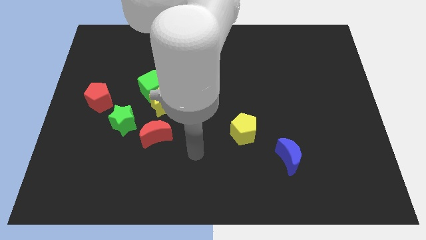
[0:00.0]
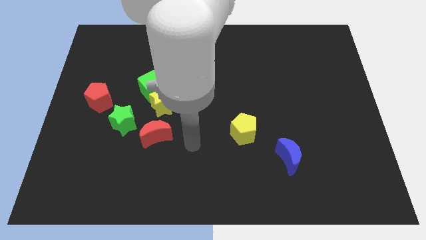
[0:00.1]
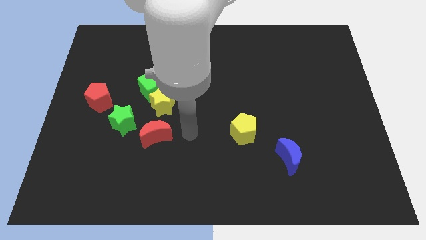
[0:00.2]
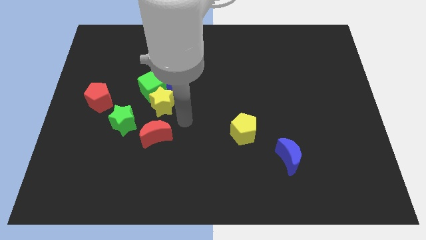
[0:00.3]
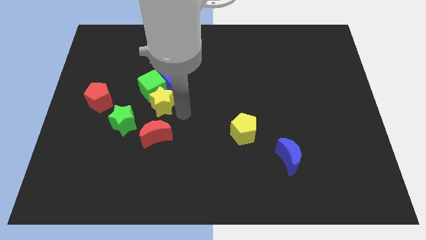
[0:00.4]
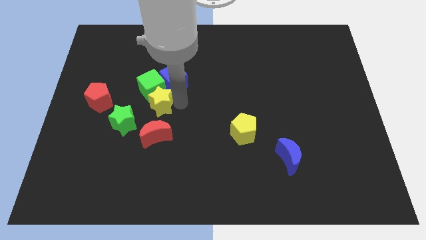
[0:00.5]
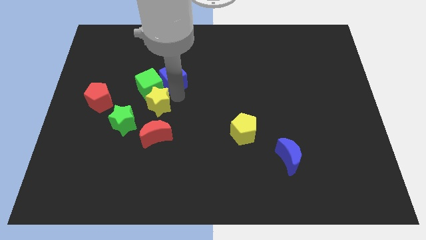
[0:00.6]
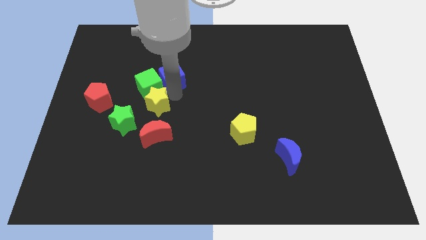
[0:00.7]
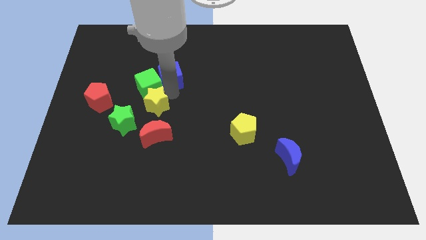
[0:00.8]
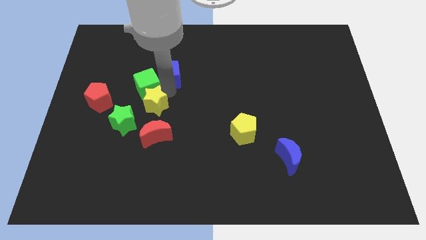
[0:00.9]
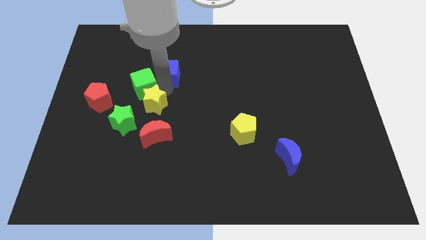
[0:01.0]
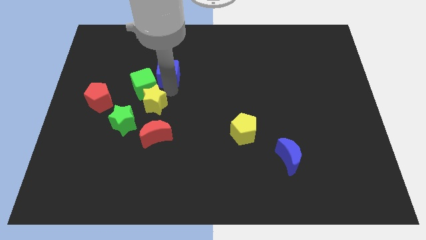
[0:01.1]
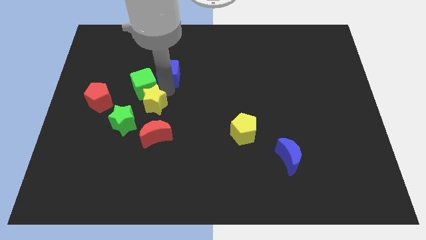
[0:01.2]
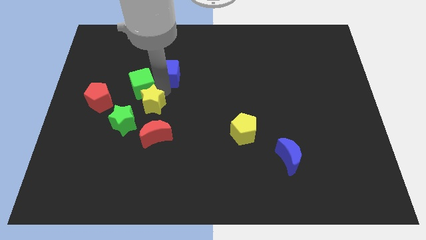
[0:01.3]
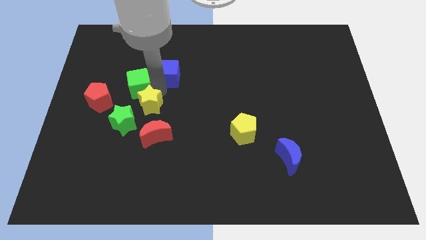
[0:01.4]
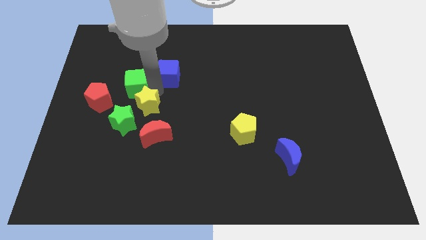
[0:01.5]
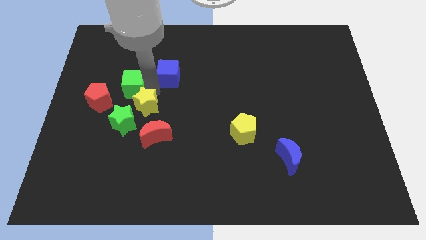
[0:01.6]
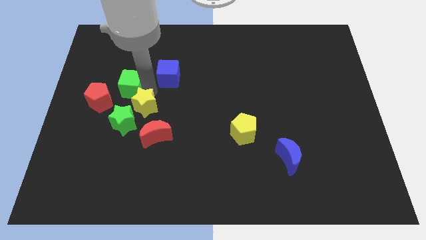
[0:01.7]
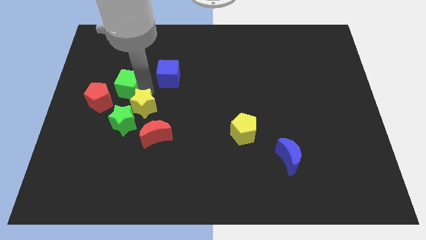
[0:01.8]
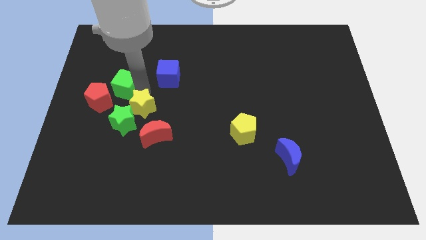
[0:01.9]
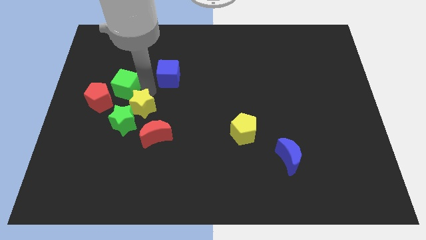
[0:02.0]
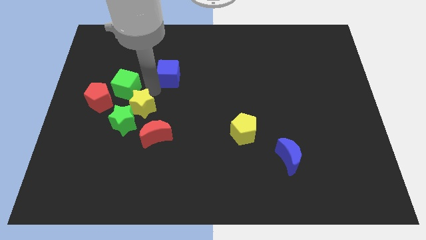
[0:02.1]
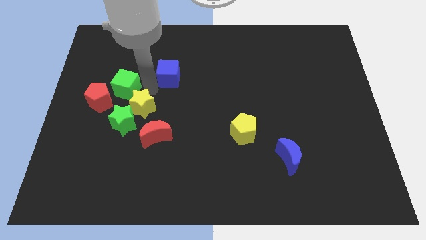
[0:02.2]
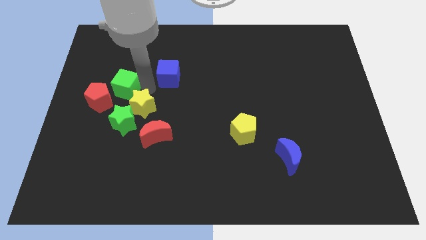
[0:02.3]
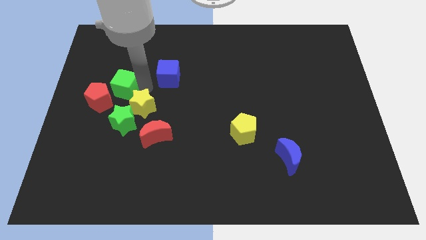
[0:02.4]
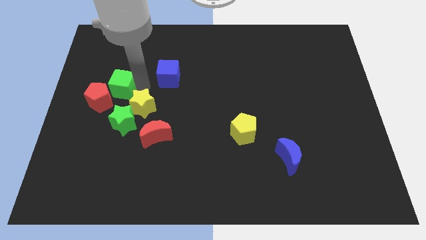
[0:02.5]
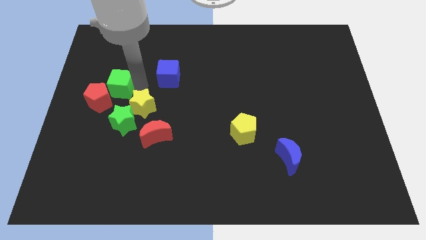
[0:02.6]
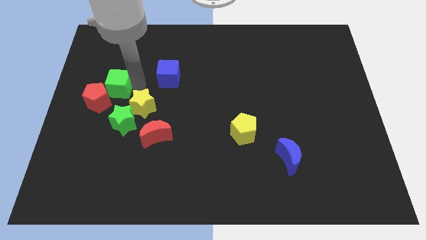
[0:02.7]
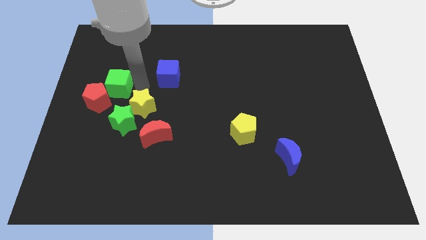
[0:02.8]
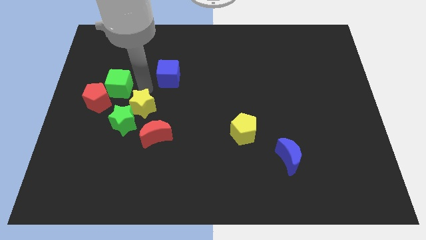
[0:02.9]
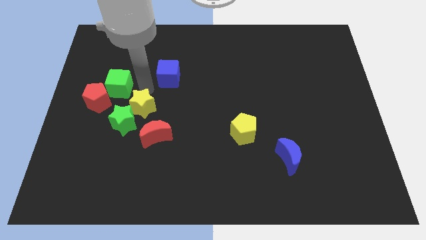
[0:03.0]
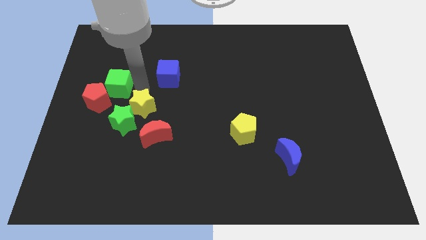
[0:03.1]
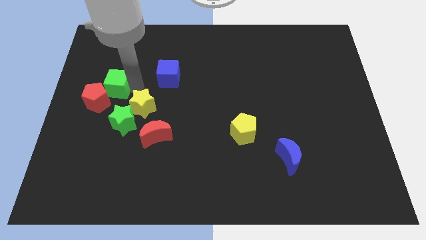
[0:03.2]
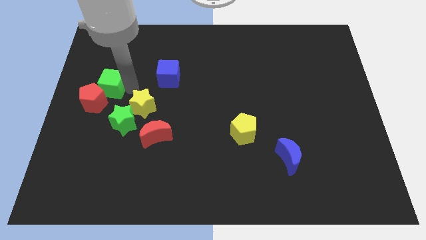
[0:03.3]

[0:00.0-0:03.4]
separate the green cube from the blue cube and yellow star

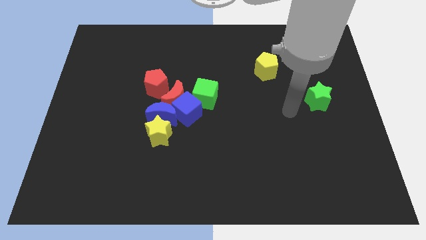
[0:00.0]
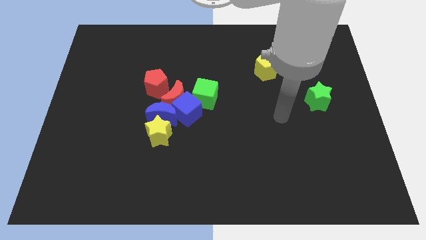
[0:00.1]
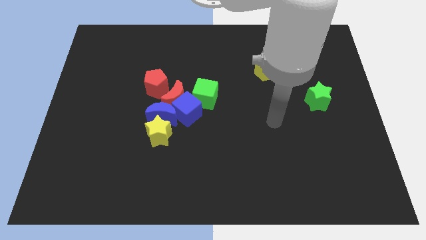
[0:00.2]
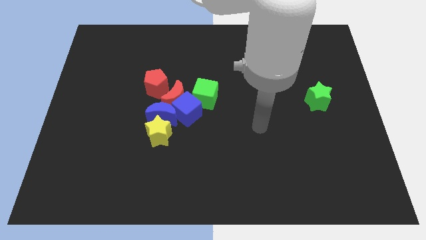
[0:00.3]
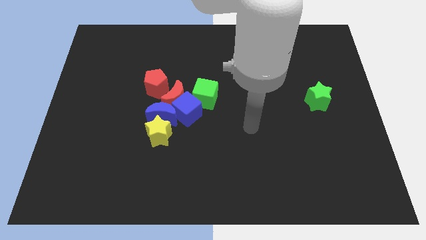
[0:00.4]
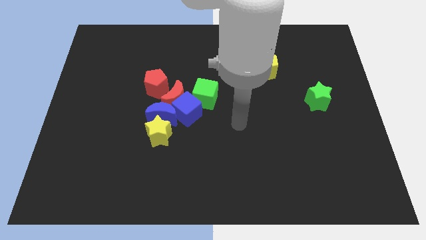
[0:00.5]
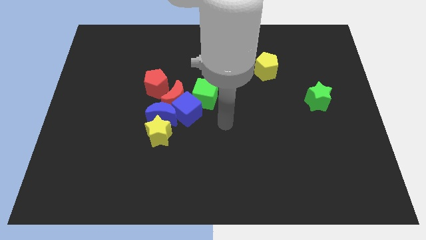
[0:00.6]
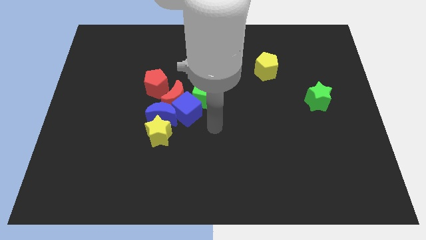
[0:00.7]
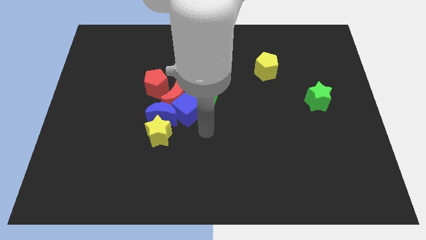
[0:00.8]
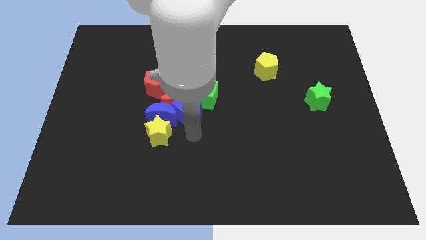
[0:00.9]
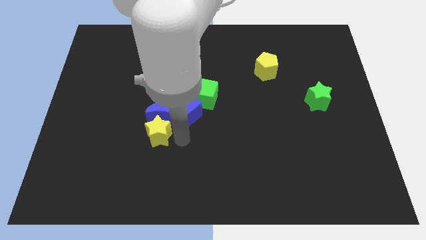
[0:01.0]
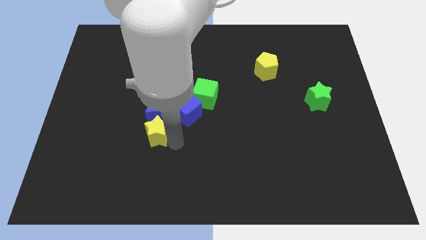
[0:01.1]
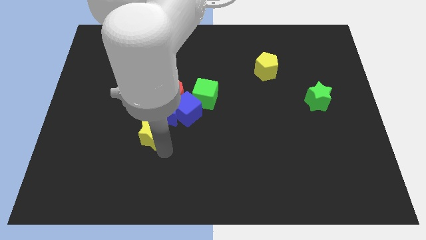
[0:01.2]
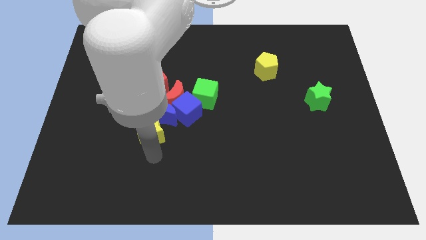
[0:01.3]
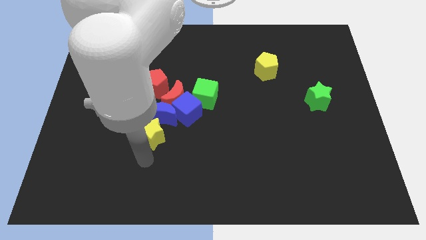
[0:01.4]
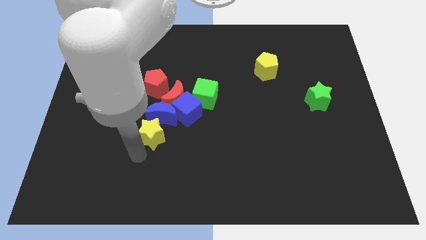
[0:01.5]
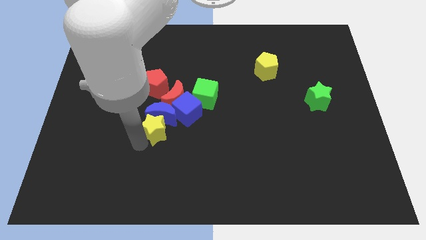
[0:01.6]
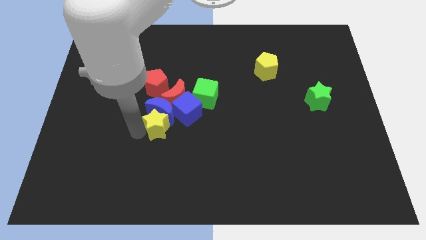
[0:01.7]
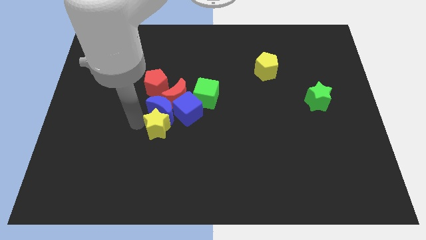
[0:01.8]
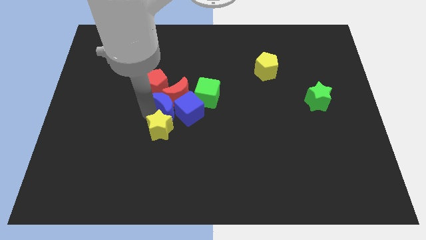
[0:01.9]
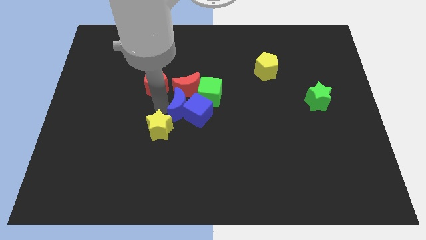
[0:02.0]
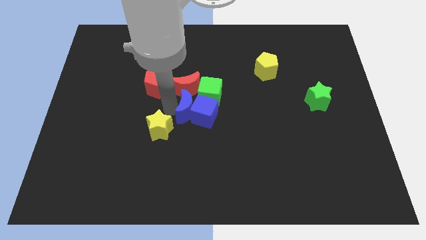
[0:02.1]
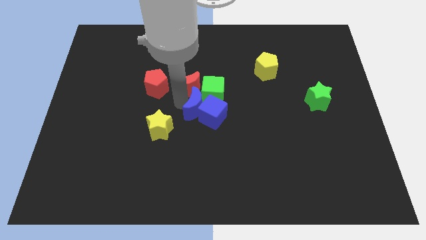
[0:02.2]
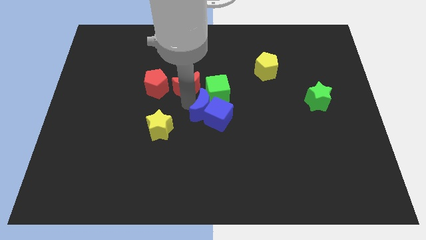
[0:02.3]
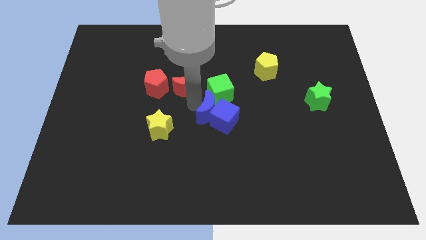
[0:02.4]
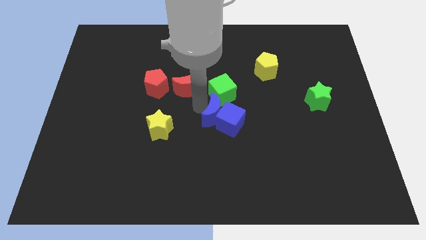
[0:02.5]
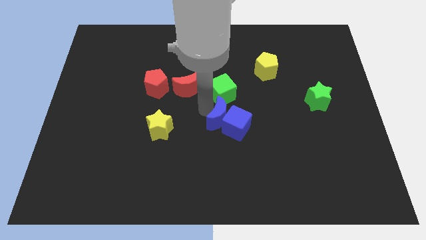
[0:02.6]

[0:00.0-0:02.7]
pull the blue cube apart from the group of blocks

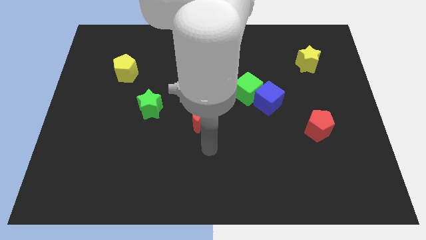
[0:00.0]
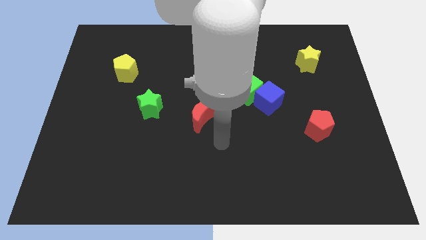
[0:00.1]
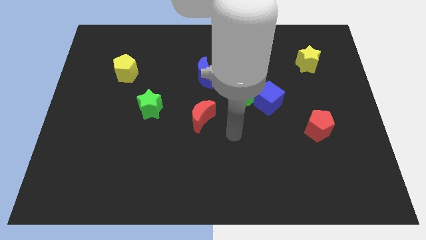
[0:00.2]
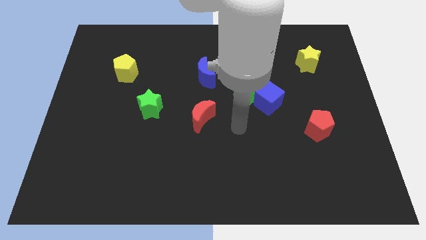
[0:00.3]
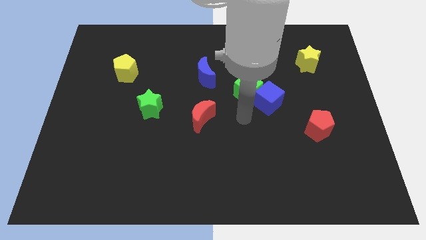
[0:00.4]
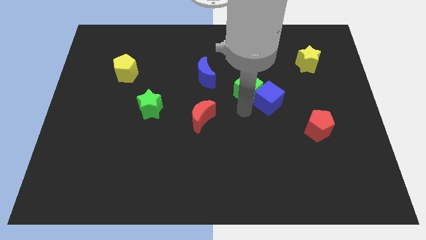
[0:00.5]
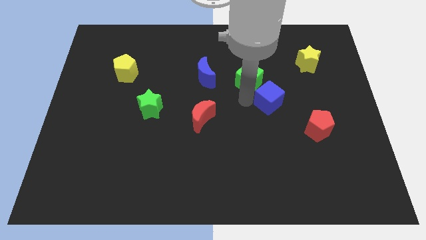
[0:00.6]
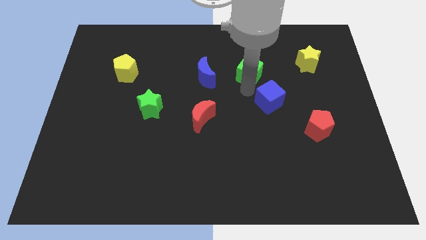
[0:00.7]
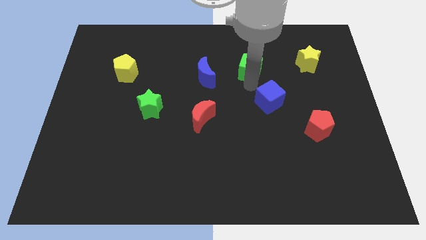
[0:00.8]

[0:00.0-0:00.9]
separate the blue cube from the green cube

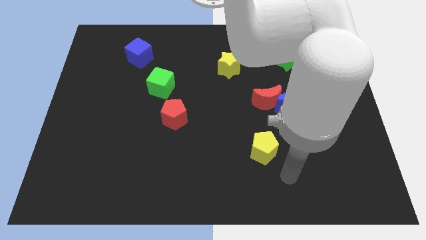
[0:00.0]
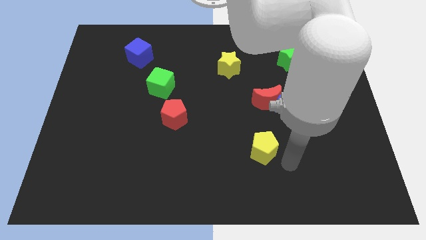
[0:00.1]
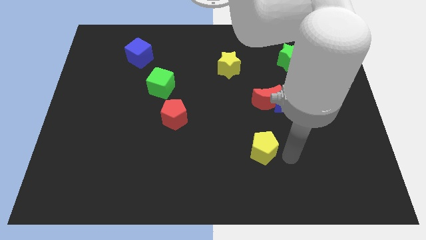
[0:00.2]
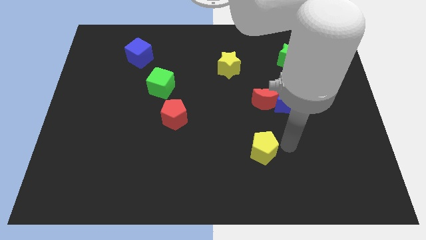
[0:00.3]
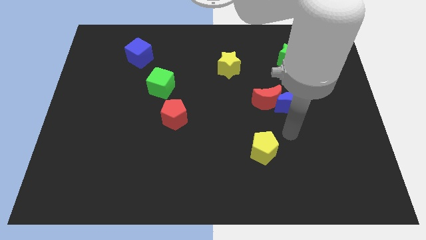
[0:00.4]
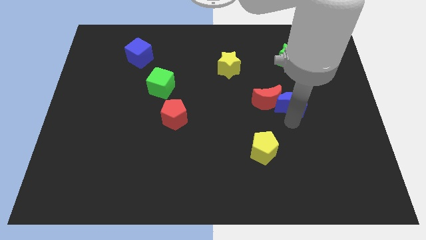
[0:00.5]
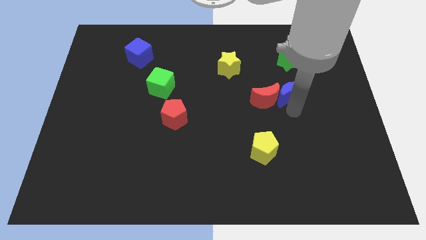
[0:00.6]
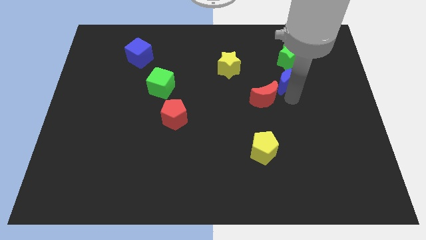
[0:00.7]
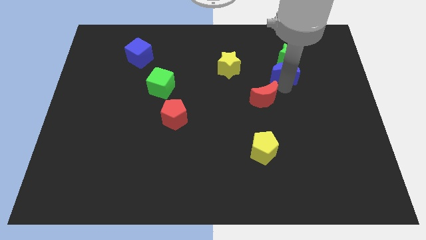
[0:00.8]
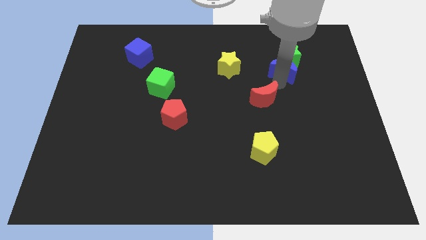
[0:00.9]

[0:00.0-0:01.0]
pull the red moon apart from the blue moon

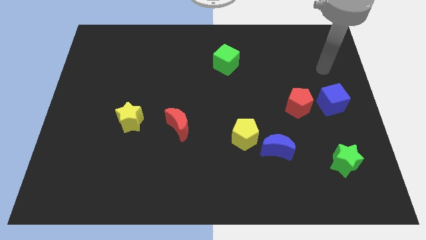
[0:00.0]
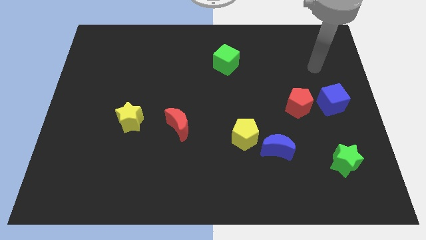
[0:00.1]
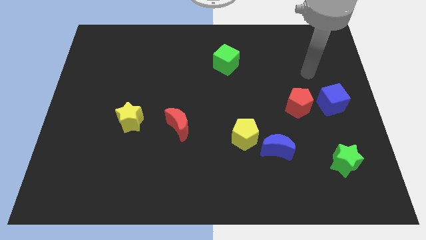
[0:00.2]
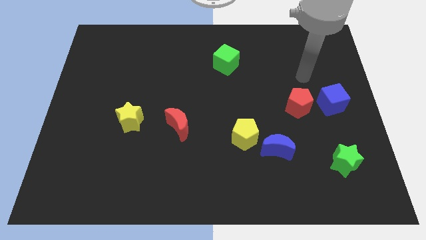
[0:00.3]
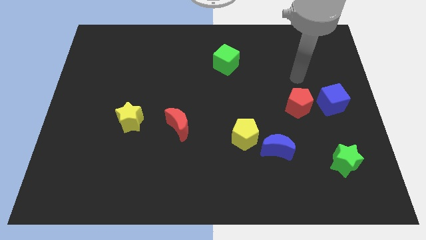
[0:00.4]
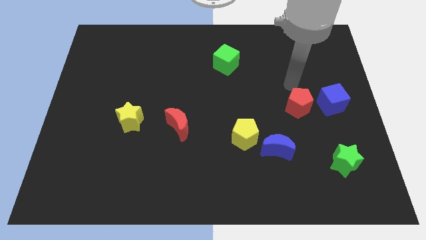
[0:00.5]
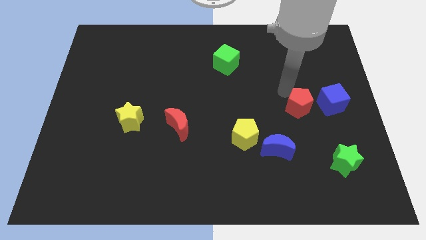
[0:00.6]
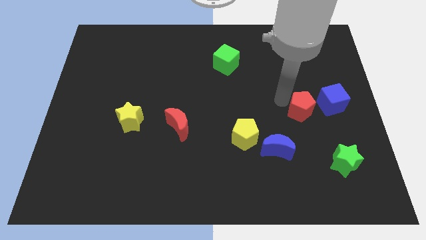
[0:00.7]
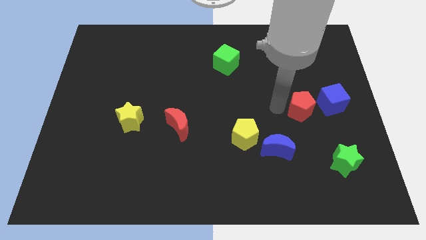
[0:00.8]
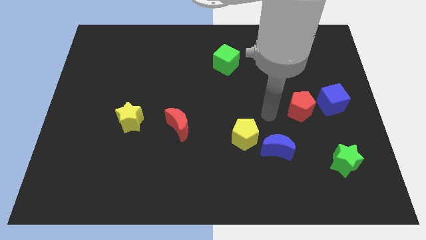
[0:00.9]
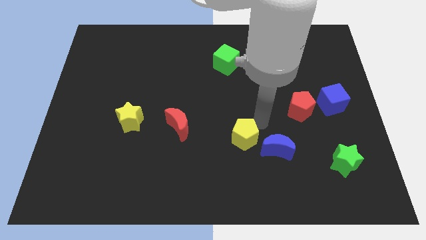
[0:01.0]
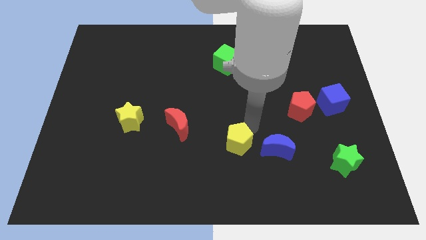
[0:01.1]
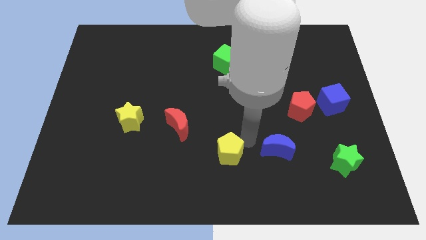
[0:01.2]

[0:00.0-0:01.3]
separate the blue moon from the yellow pentagon
